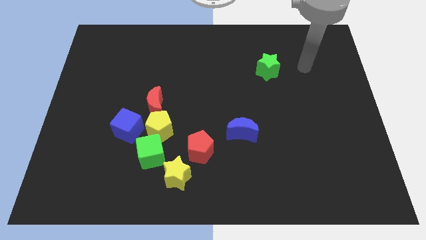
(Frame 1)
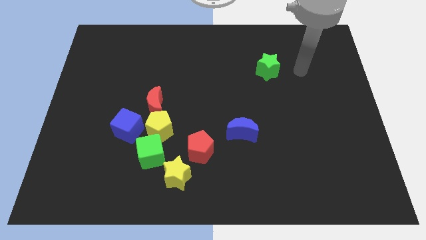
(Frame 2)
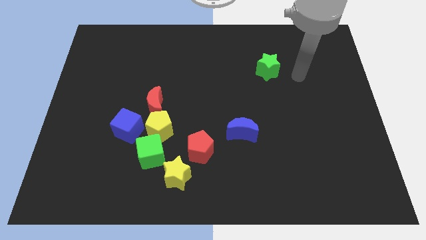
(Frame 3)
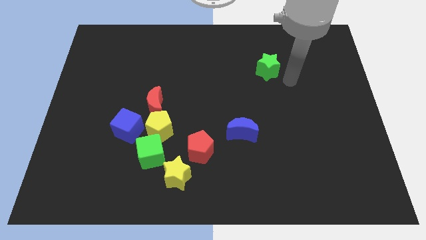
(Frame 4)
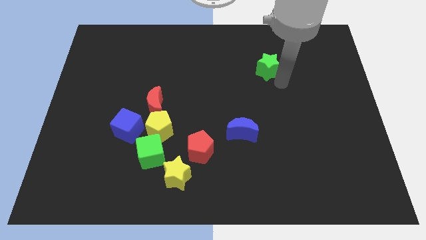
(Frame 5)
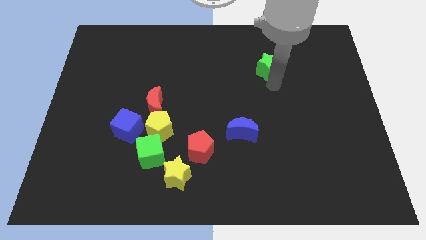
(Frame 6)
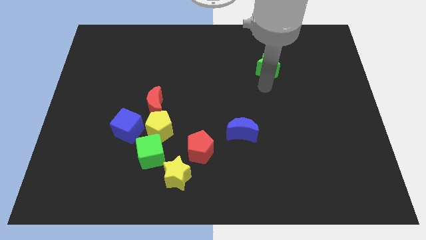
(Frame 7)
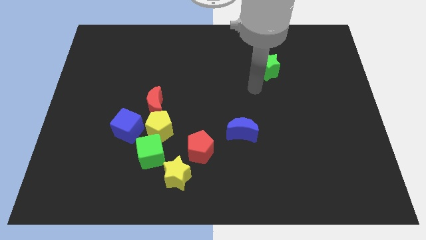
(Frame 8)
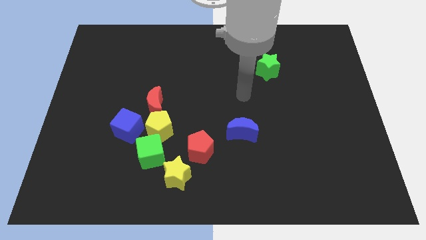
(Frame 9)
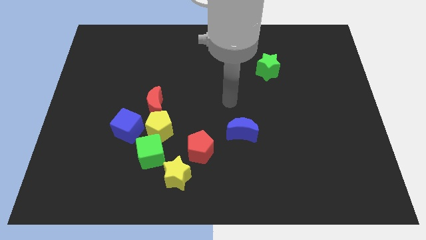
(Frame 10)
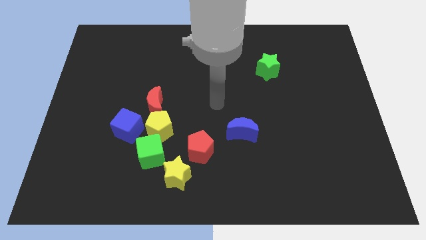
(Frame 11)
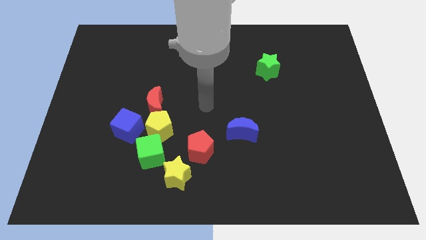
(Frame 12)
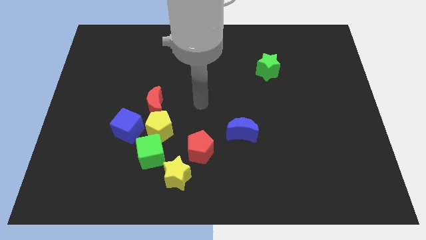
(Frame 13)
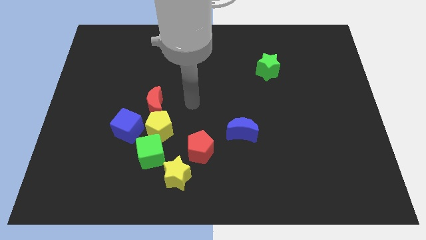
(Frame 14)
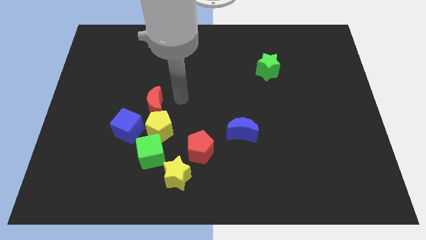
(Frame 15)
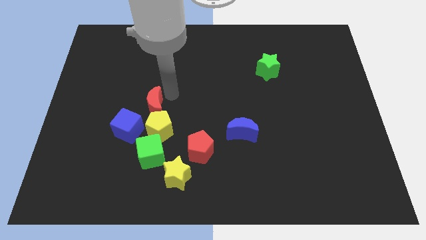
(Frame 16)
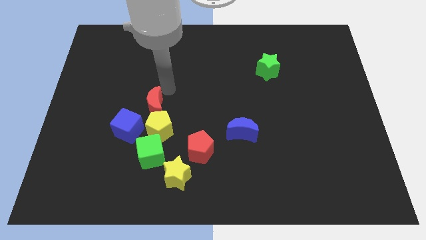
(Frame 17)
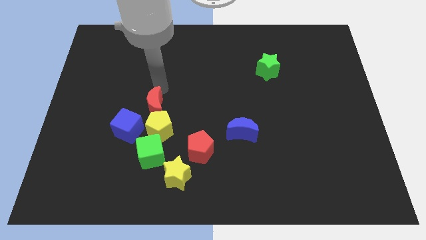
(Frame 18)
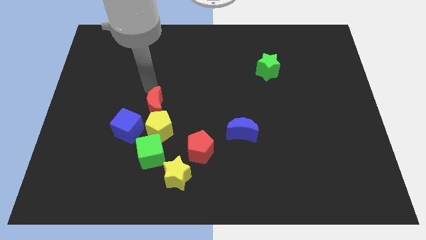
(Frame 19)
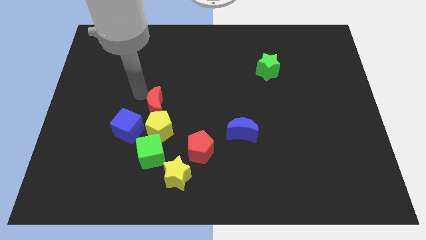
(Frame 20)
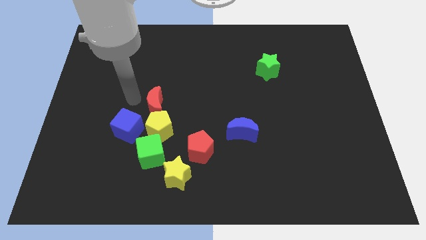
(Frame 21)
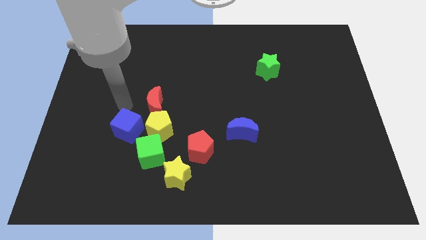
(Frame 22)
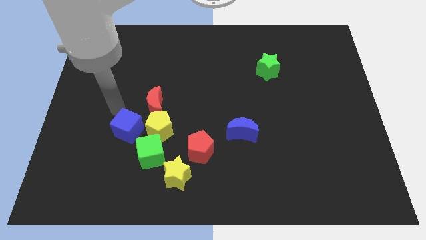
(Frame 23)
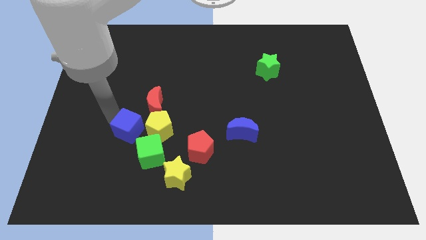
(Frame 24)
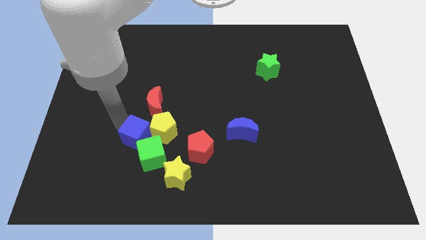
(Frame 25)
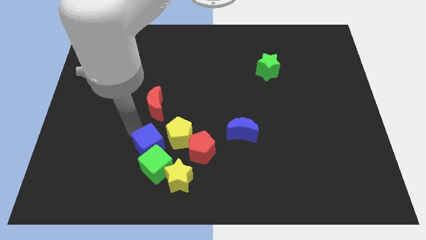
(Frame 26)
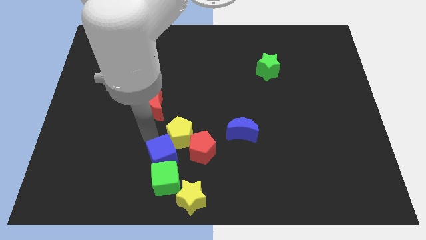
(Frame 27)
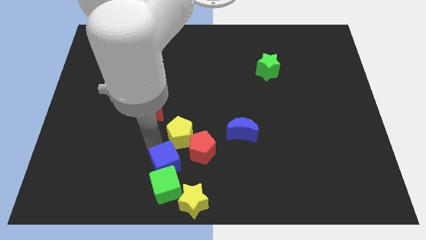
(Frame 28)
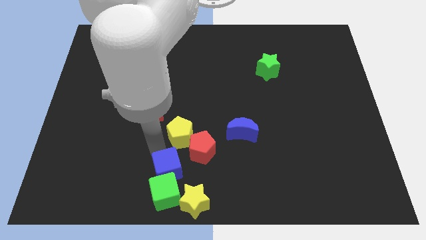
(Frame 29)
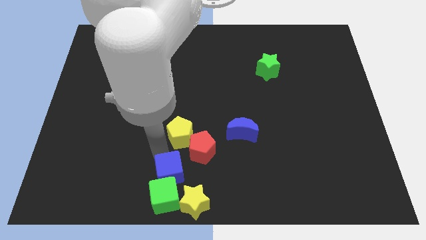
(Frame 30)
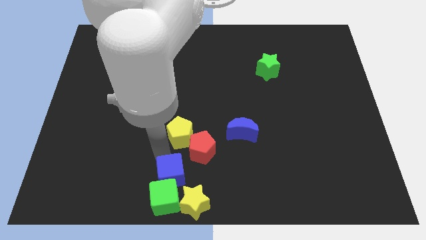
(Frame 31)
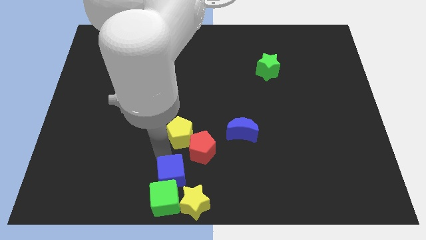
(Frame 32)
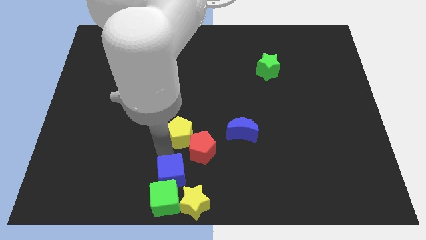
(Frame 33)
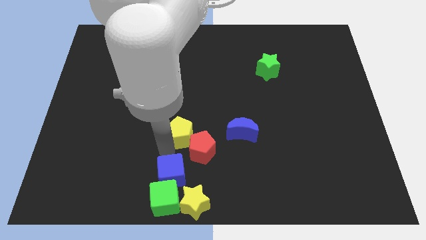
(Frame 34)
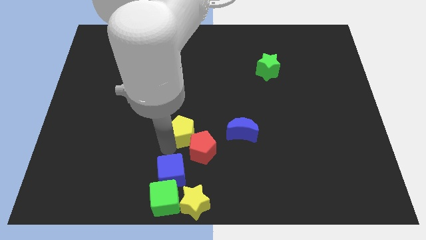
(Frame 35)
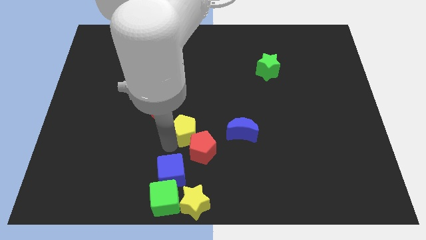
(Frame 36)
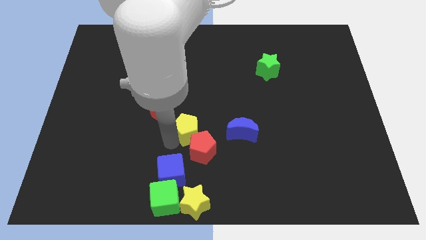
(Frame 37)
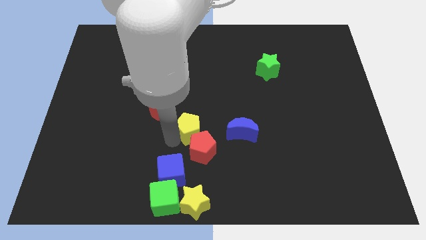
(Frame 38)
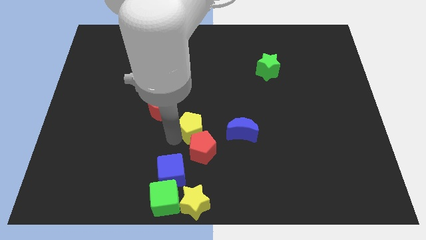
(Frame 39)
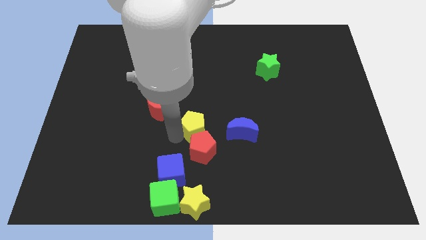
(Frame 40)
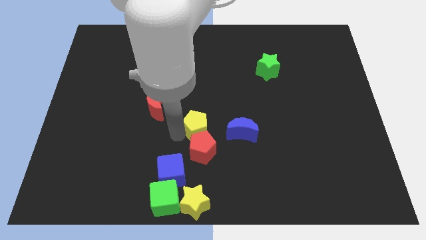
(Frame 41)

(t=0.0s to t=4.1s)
move the yellow pentagon away from the group

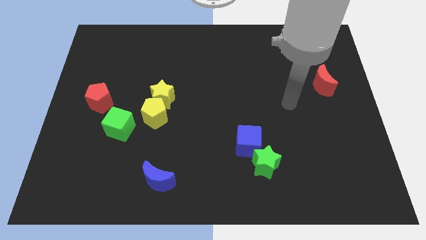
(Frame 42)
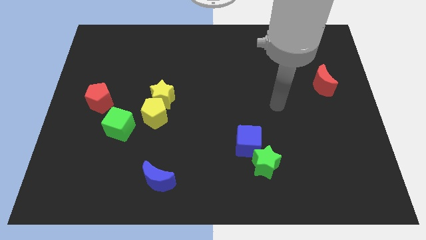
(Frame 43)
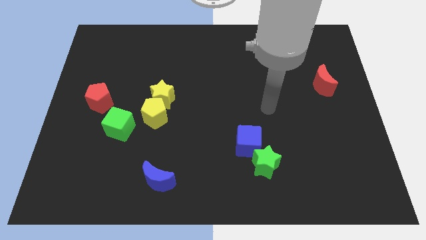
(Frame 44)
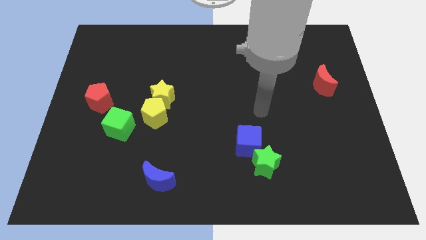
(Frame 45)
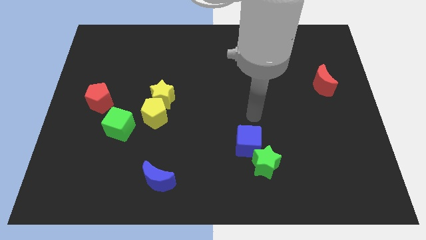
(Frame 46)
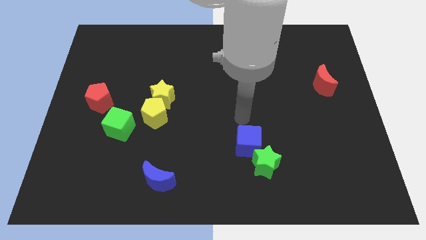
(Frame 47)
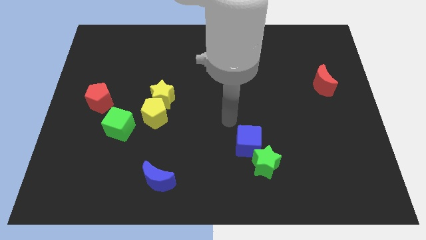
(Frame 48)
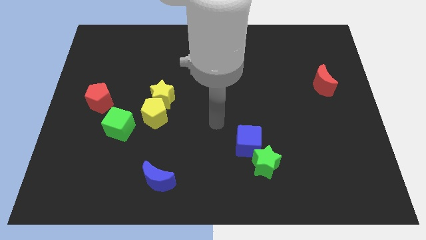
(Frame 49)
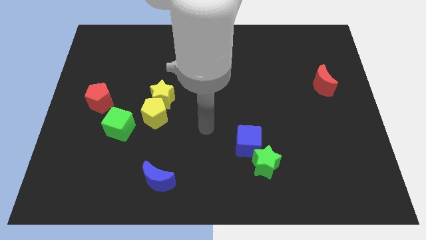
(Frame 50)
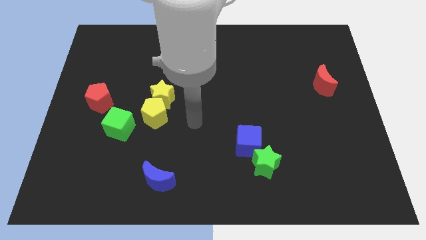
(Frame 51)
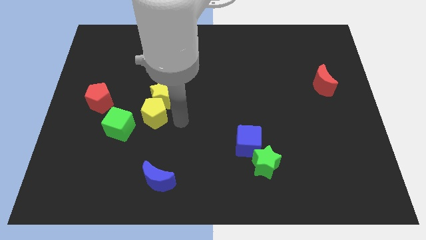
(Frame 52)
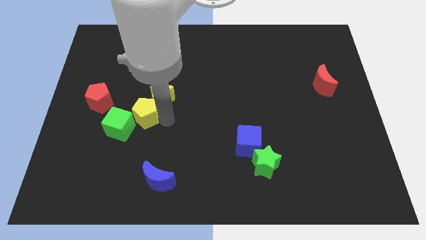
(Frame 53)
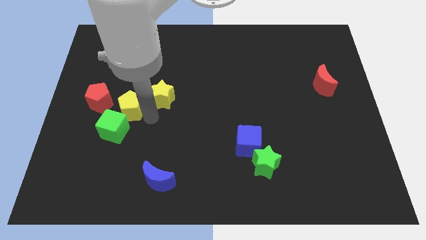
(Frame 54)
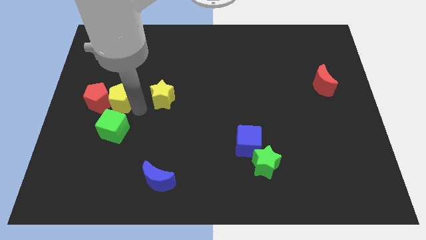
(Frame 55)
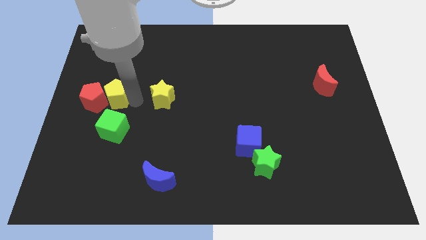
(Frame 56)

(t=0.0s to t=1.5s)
separate the yellow star from the yellow pentagon

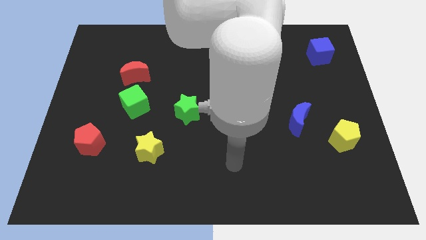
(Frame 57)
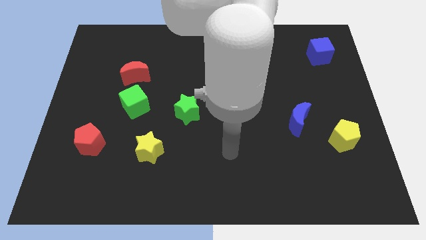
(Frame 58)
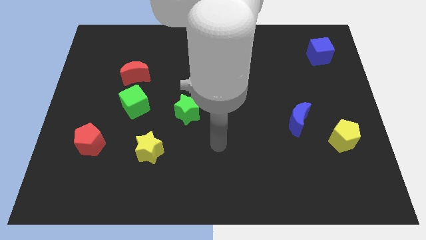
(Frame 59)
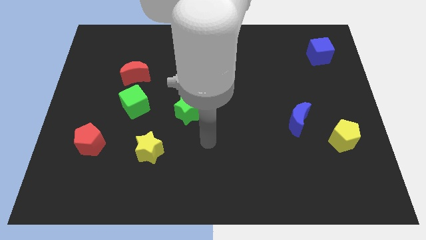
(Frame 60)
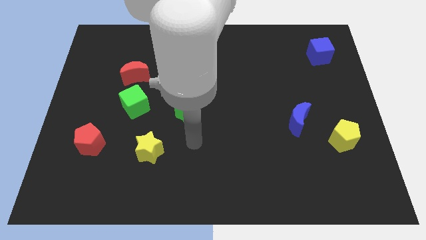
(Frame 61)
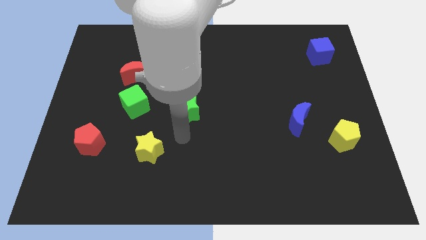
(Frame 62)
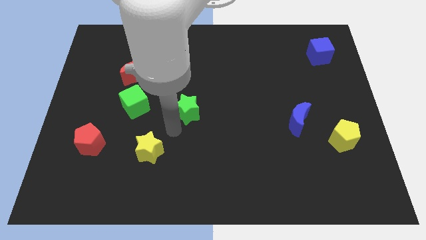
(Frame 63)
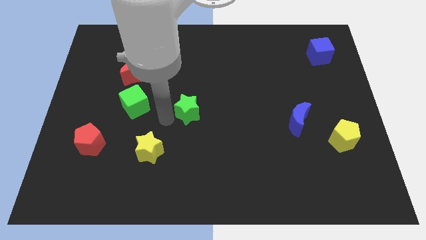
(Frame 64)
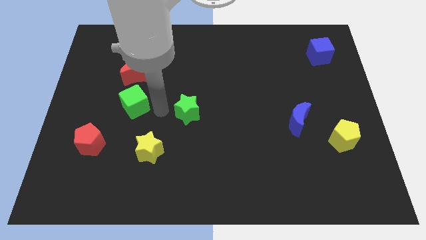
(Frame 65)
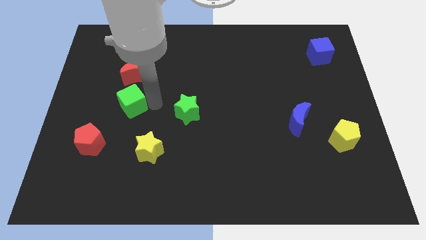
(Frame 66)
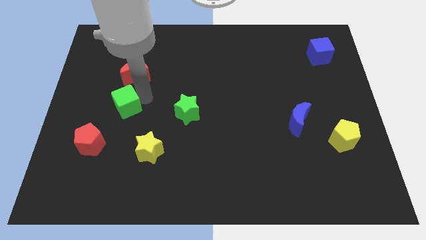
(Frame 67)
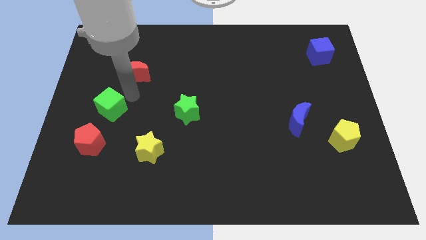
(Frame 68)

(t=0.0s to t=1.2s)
pull the red moon apart from the green cube

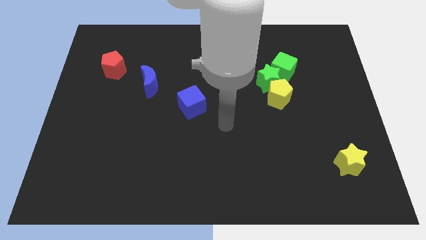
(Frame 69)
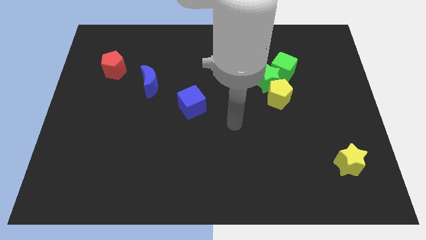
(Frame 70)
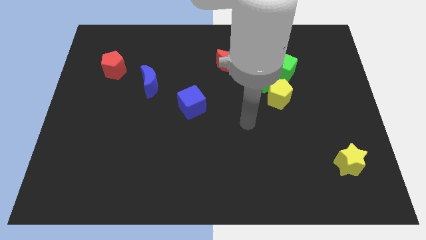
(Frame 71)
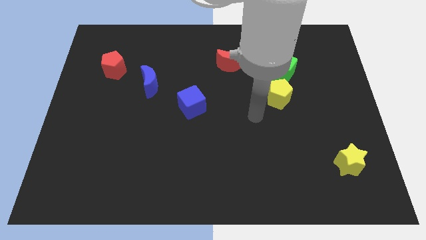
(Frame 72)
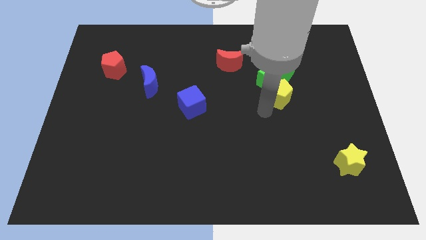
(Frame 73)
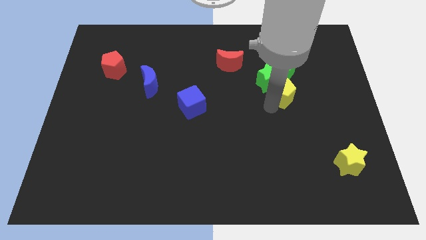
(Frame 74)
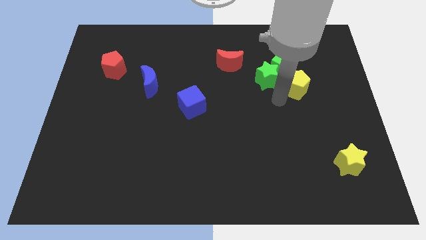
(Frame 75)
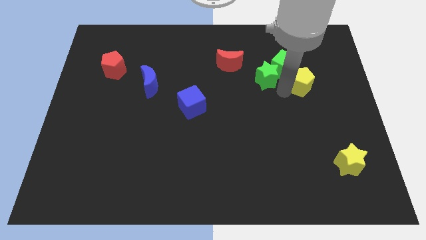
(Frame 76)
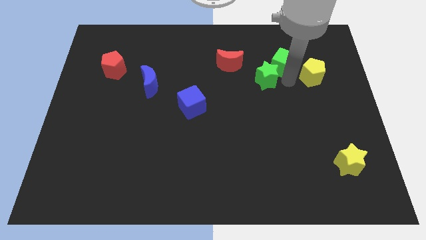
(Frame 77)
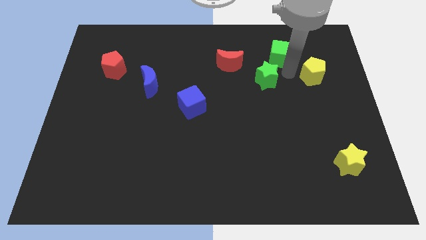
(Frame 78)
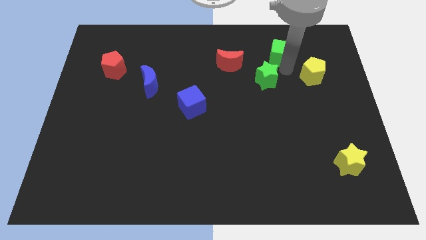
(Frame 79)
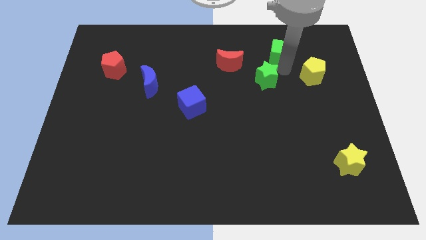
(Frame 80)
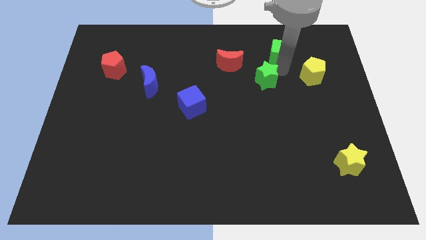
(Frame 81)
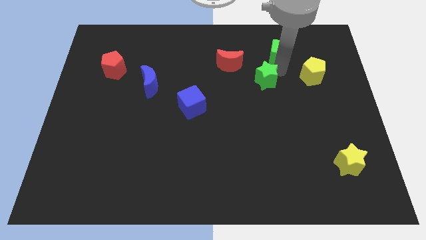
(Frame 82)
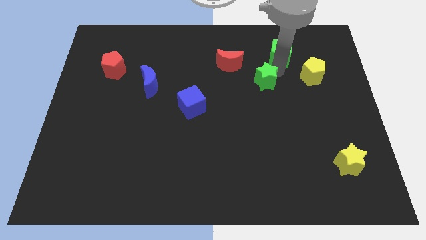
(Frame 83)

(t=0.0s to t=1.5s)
separate the green star from the yellow pentagon and green cube

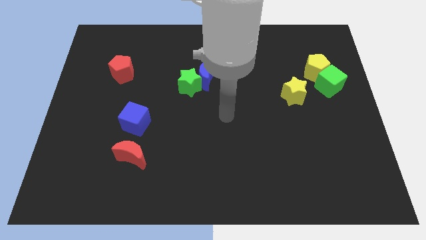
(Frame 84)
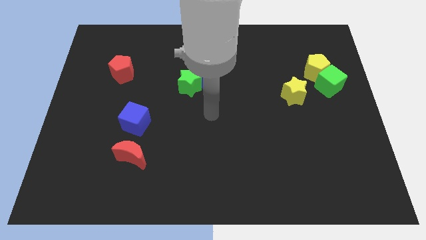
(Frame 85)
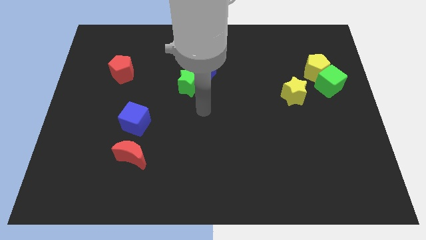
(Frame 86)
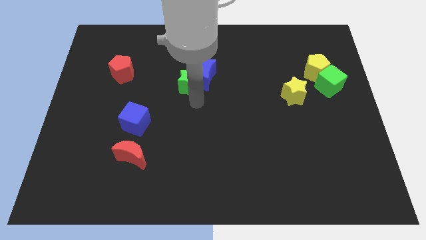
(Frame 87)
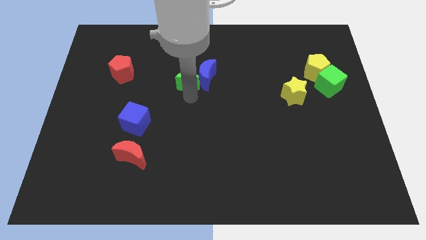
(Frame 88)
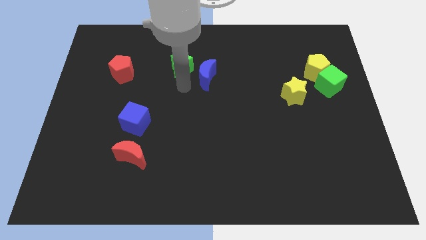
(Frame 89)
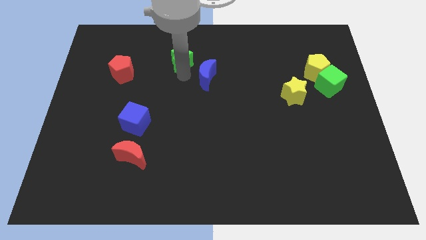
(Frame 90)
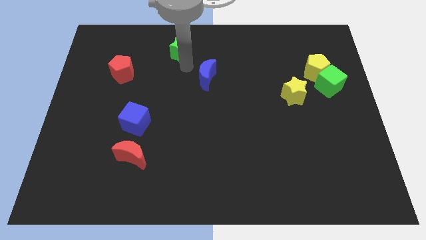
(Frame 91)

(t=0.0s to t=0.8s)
separate the blue moon from the green star

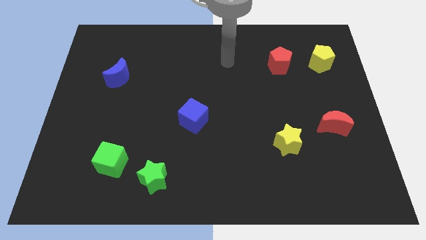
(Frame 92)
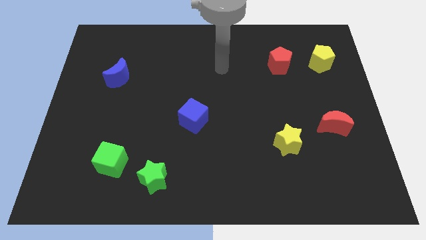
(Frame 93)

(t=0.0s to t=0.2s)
pull the green cube apart from the green star
